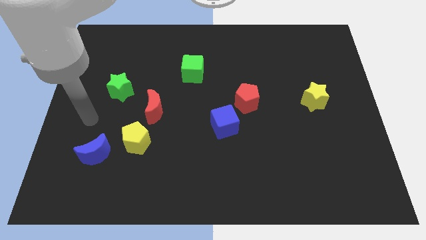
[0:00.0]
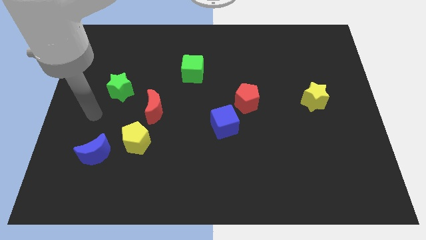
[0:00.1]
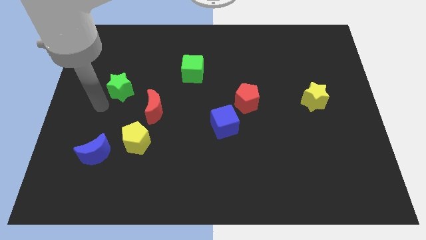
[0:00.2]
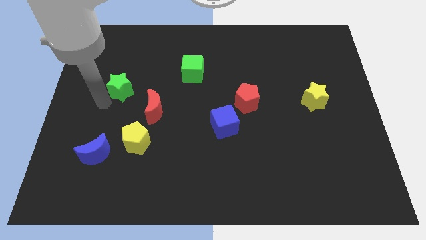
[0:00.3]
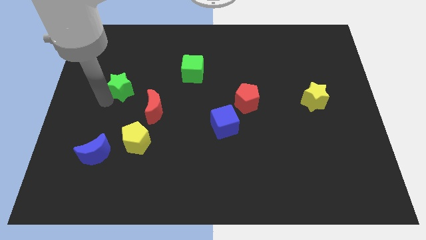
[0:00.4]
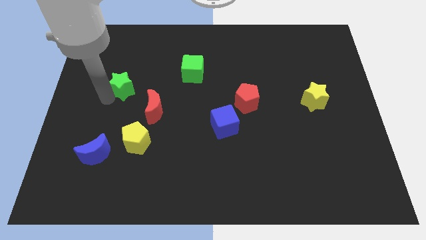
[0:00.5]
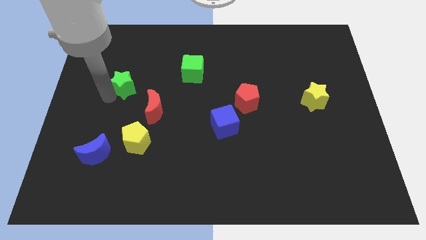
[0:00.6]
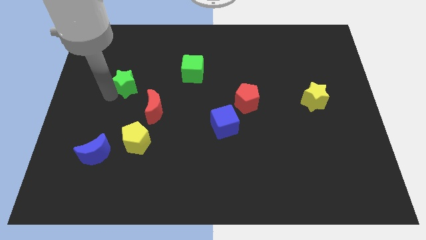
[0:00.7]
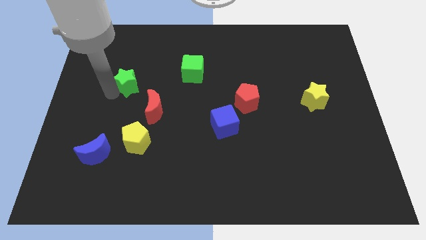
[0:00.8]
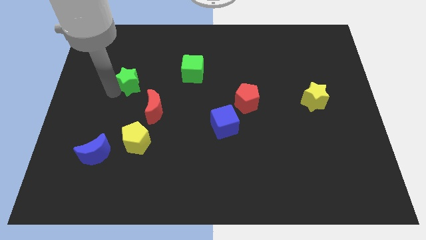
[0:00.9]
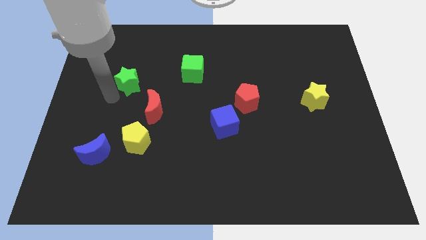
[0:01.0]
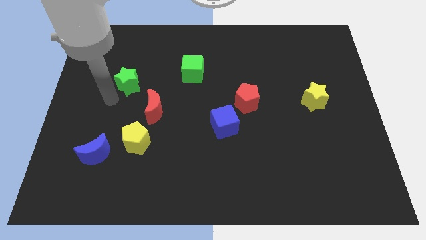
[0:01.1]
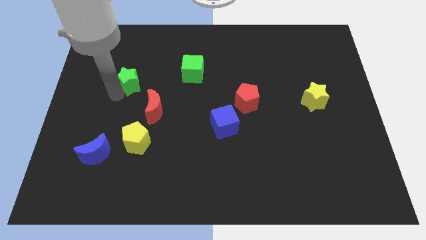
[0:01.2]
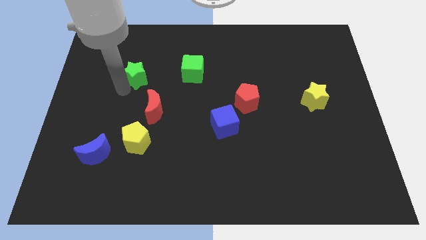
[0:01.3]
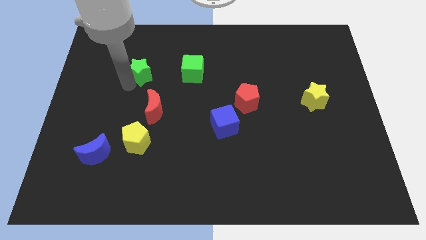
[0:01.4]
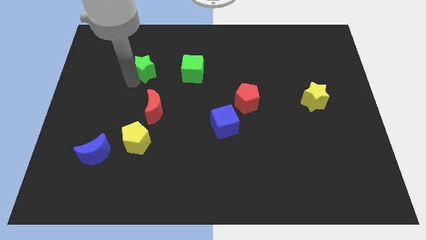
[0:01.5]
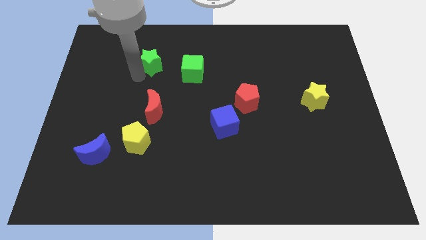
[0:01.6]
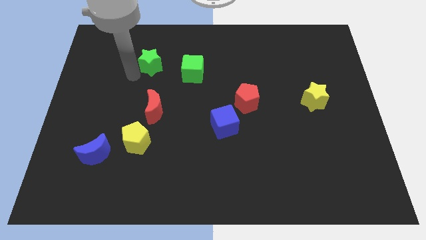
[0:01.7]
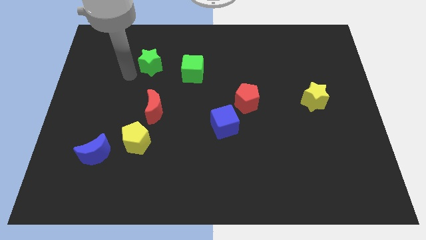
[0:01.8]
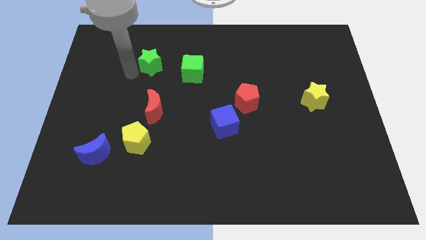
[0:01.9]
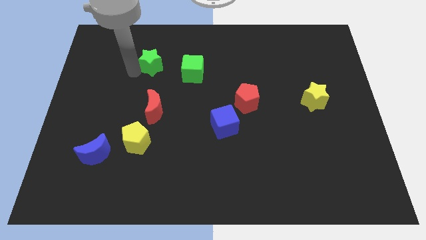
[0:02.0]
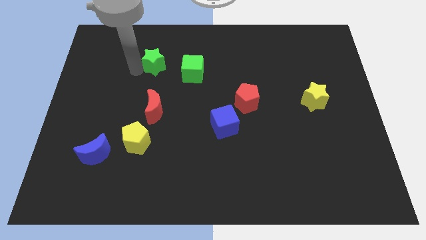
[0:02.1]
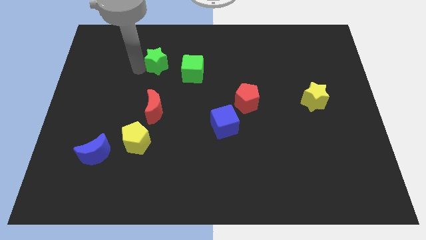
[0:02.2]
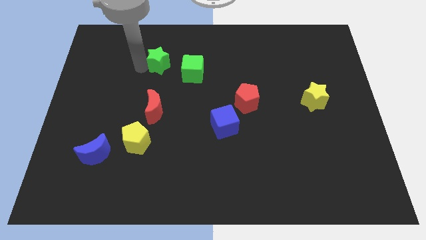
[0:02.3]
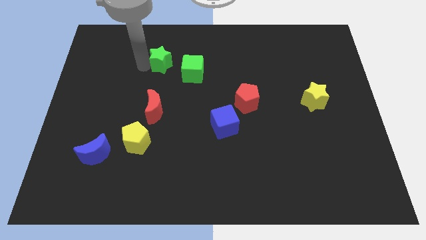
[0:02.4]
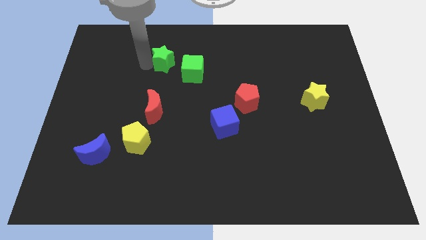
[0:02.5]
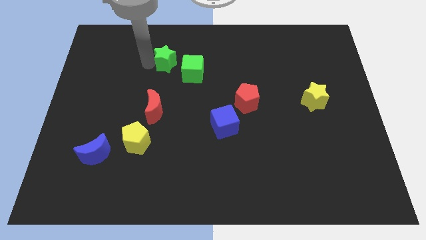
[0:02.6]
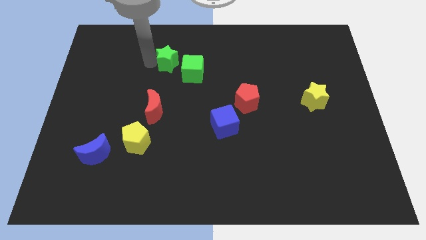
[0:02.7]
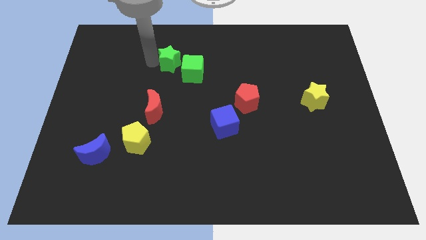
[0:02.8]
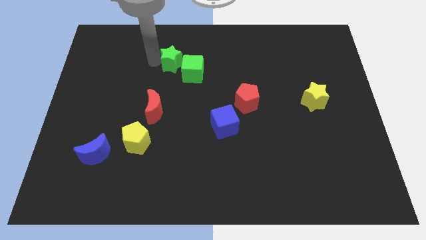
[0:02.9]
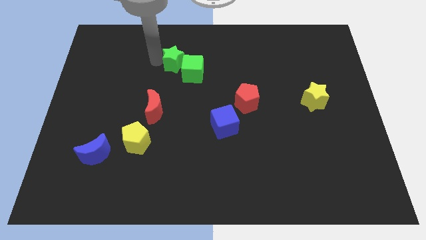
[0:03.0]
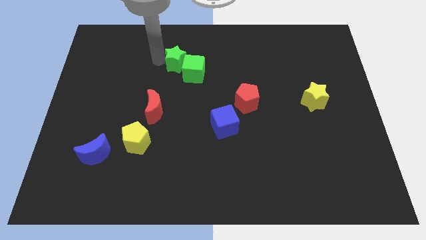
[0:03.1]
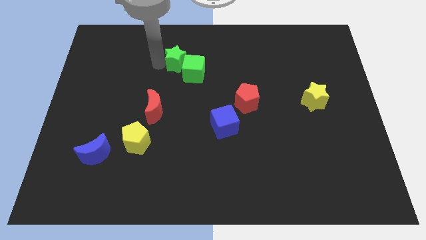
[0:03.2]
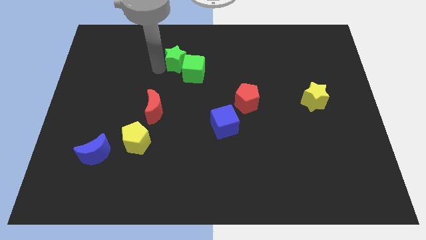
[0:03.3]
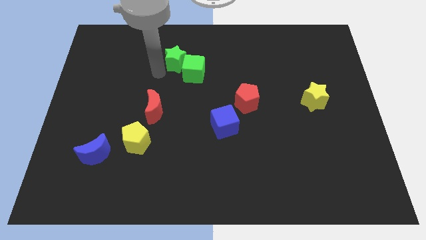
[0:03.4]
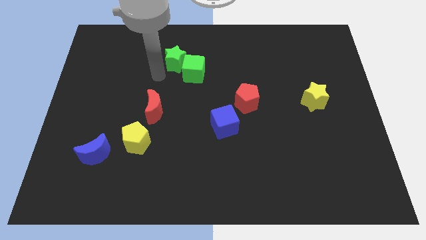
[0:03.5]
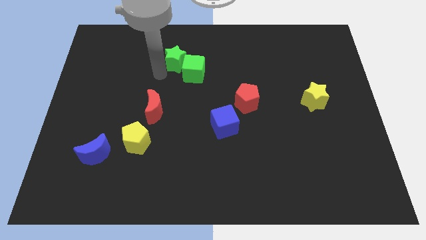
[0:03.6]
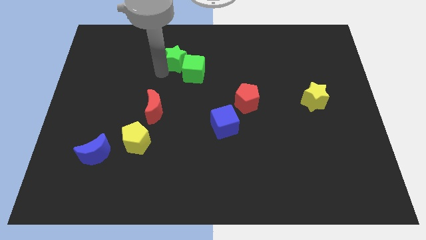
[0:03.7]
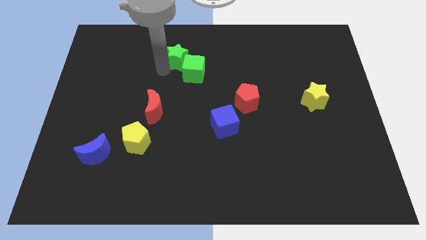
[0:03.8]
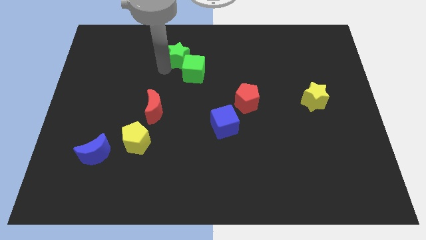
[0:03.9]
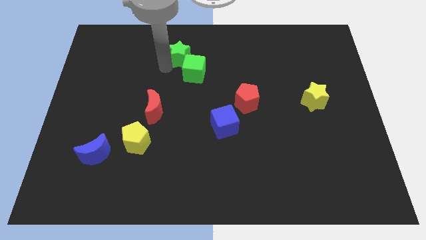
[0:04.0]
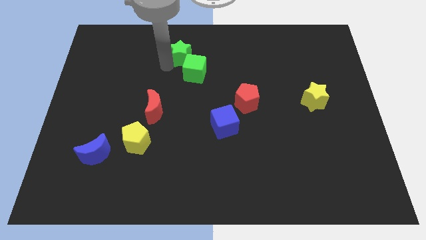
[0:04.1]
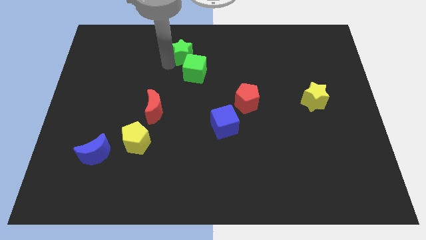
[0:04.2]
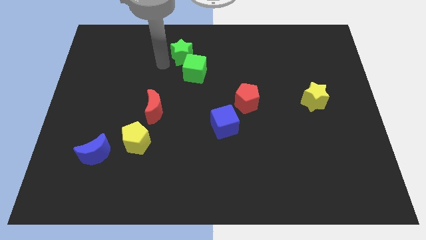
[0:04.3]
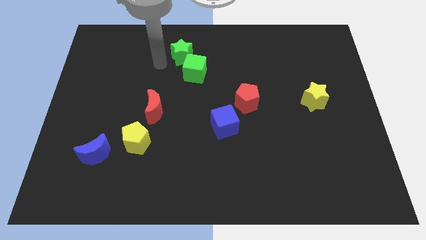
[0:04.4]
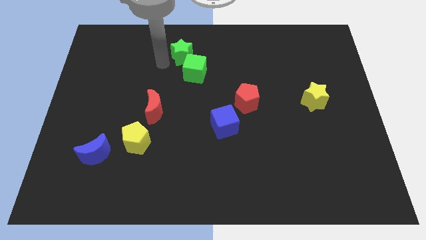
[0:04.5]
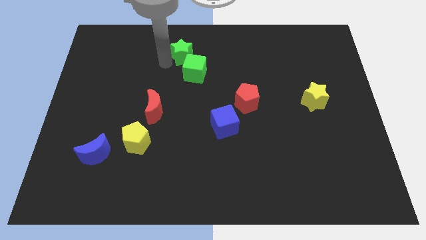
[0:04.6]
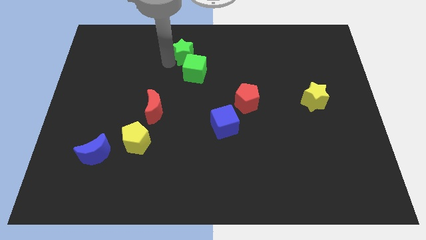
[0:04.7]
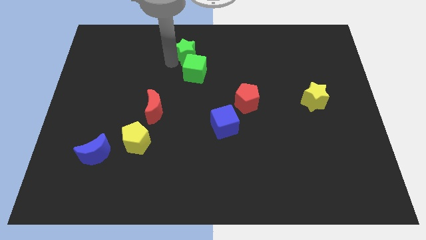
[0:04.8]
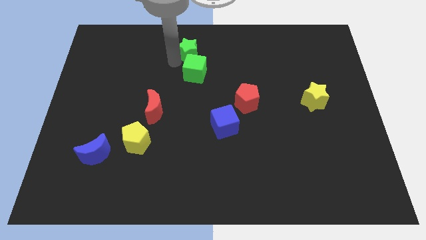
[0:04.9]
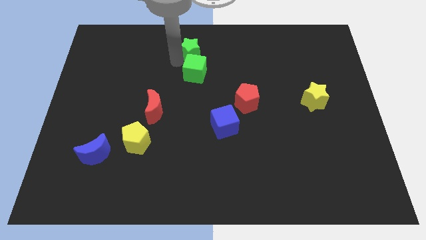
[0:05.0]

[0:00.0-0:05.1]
move the green star to the top side

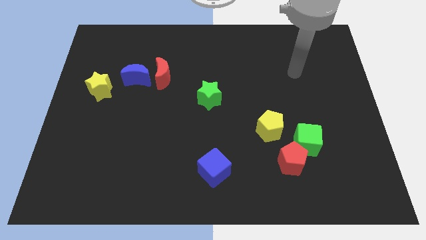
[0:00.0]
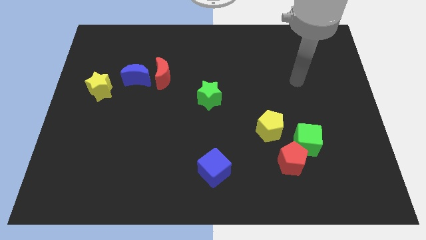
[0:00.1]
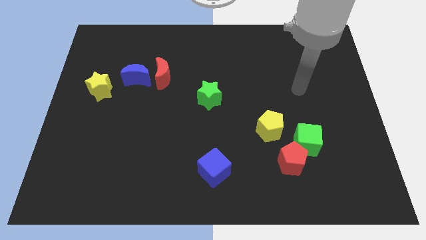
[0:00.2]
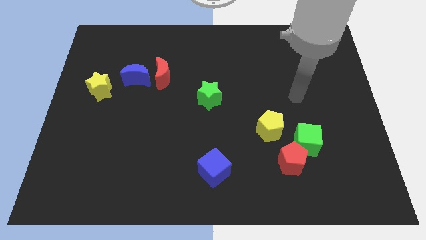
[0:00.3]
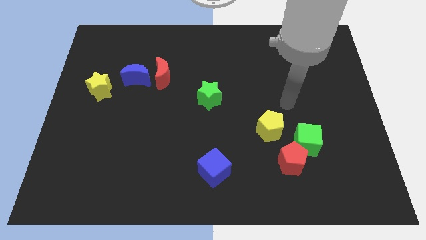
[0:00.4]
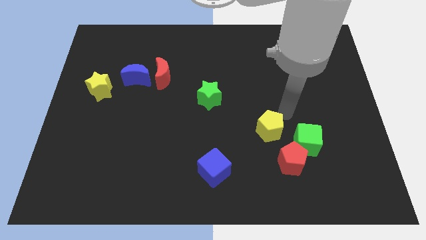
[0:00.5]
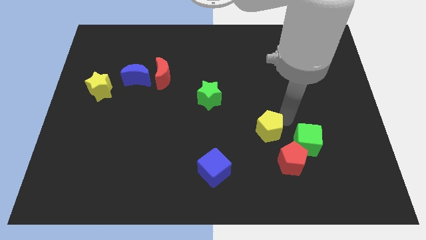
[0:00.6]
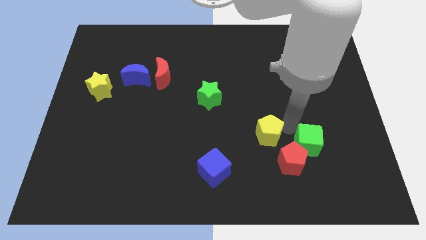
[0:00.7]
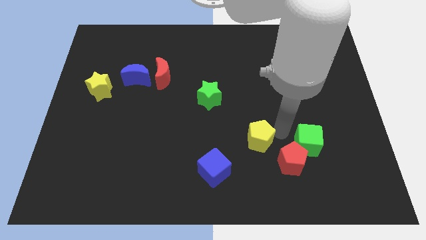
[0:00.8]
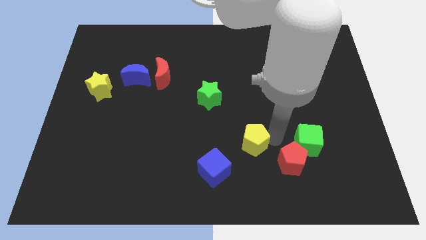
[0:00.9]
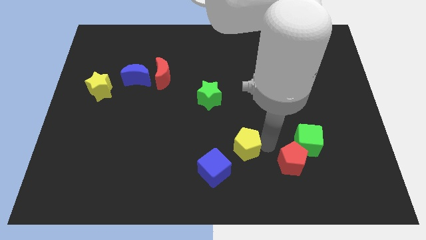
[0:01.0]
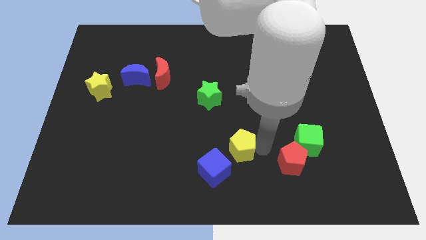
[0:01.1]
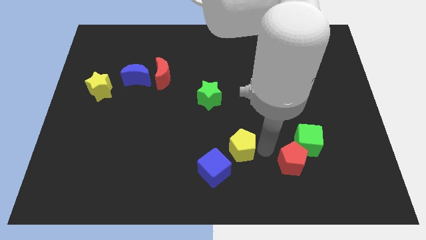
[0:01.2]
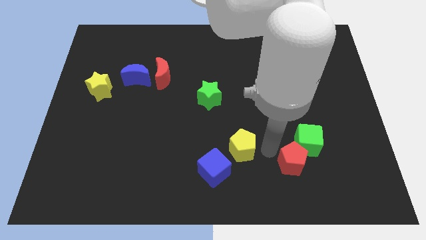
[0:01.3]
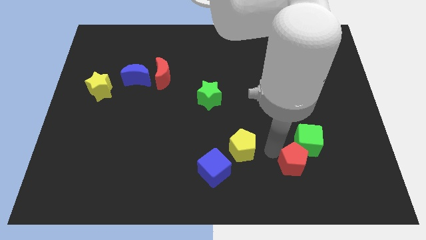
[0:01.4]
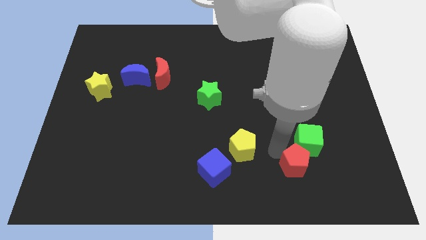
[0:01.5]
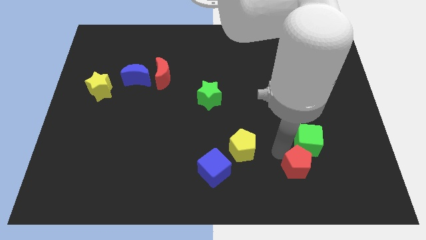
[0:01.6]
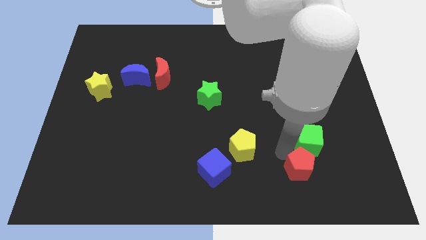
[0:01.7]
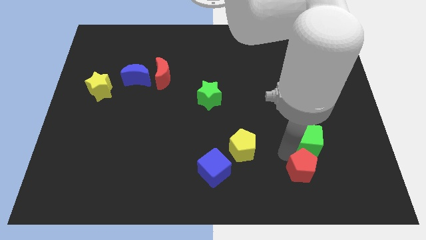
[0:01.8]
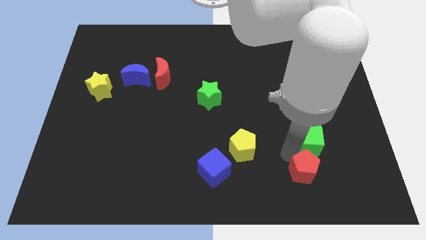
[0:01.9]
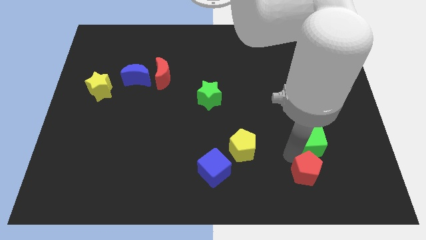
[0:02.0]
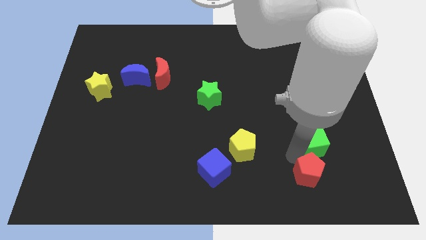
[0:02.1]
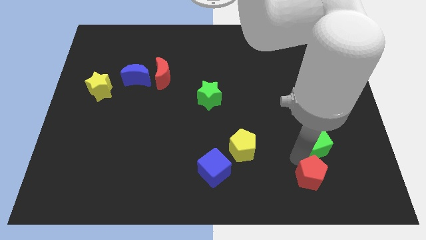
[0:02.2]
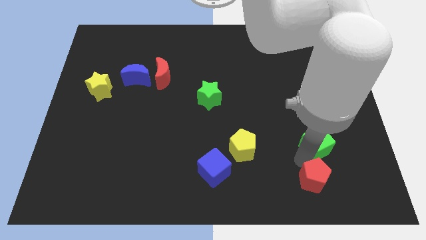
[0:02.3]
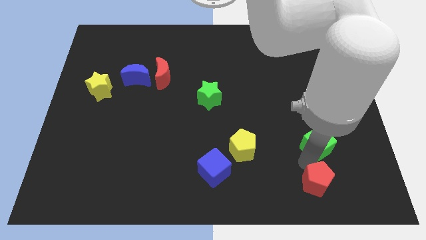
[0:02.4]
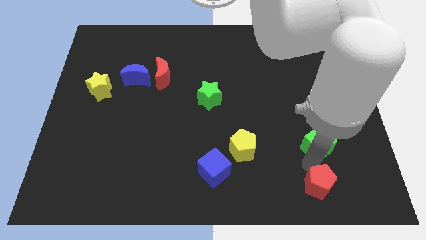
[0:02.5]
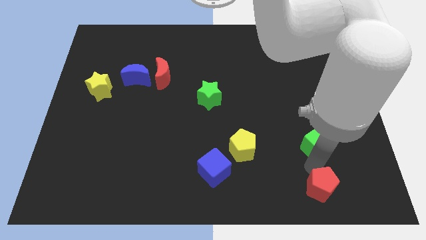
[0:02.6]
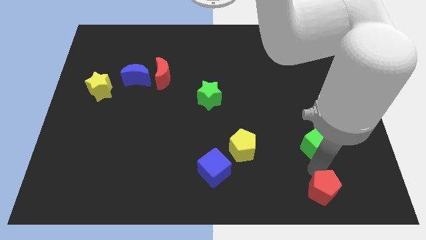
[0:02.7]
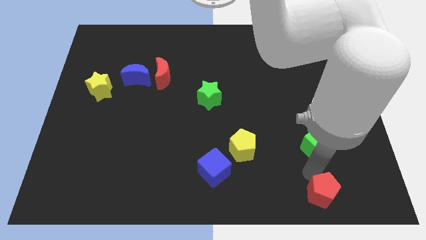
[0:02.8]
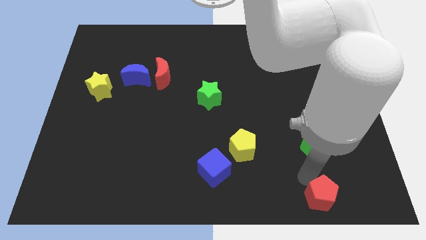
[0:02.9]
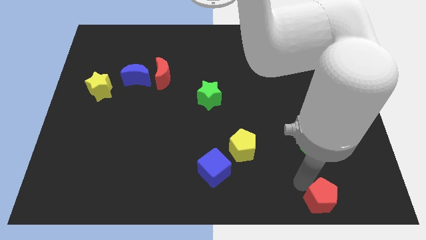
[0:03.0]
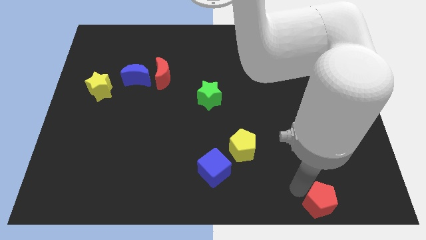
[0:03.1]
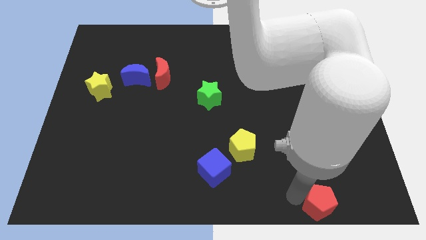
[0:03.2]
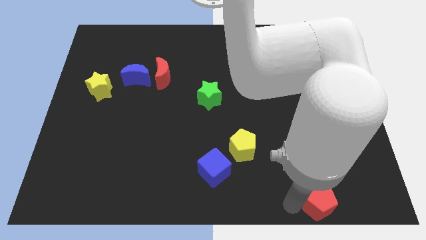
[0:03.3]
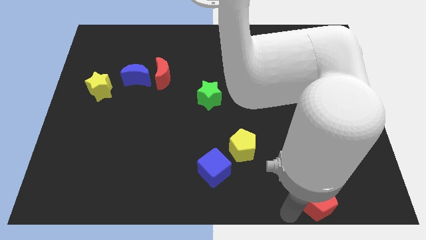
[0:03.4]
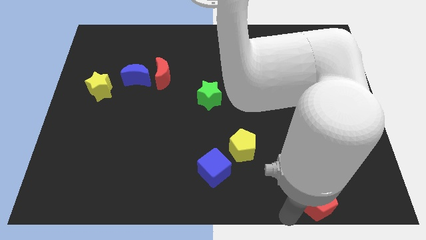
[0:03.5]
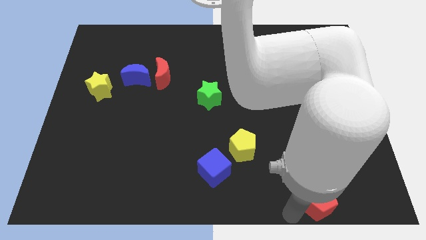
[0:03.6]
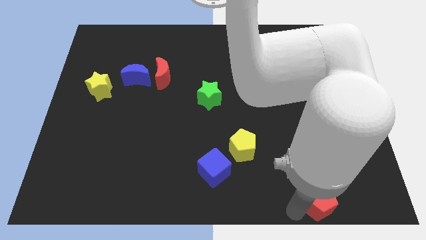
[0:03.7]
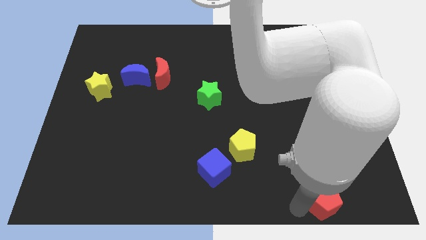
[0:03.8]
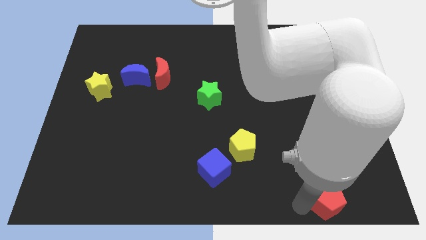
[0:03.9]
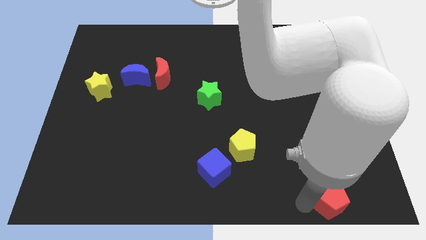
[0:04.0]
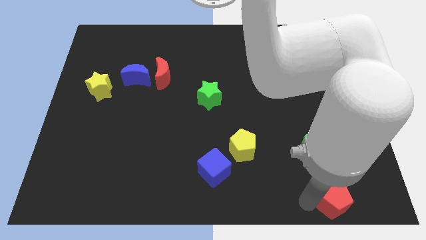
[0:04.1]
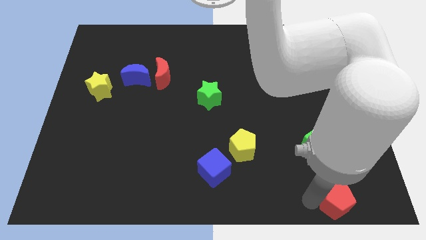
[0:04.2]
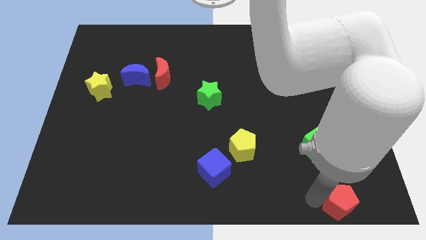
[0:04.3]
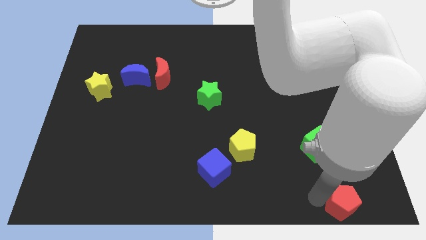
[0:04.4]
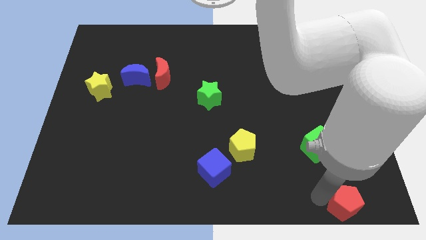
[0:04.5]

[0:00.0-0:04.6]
move the red pentagon to the bottom right corner
